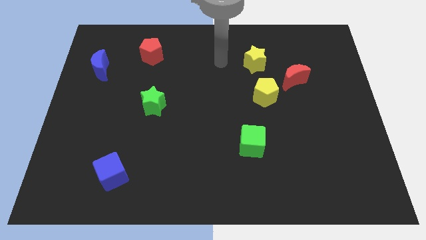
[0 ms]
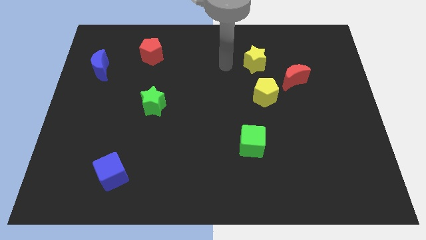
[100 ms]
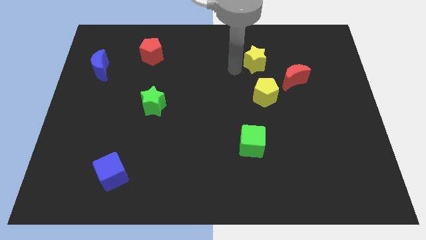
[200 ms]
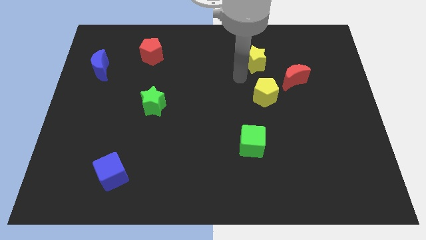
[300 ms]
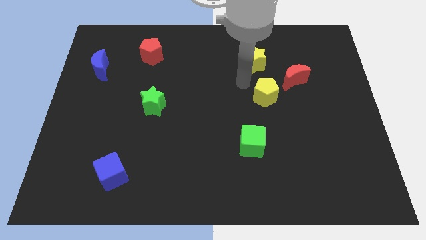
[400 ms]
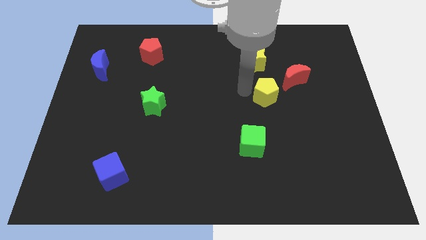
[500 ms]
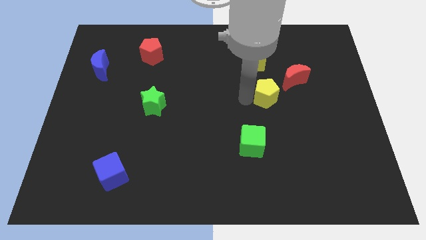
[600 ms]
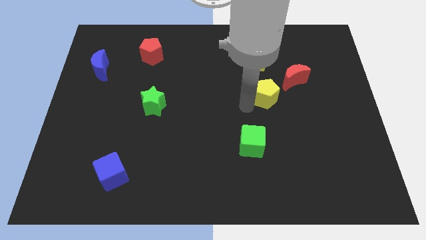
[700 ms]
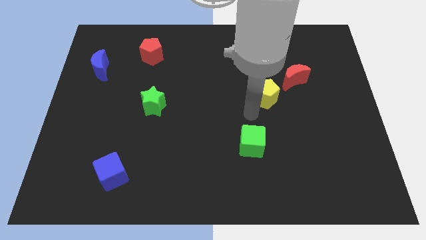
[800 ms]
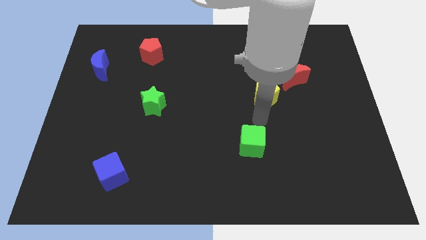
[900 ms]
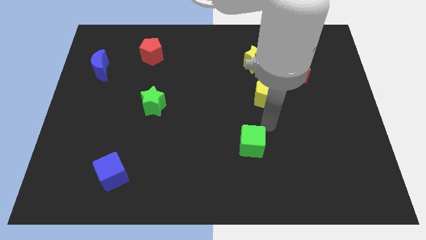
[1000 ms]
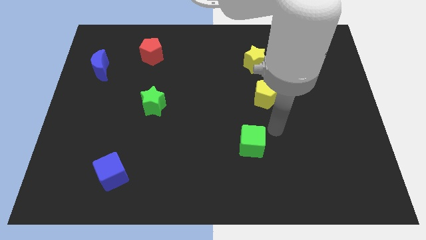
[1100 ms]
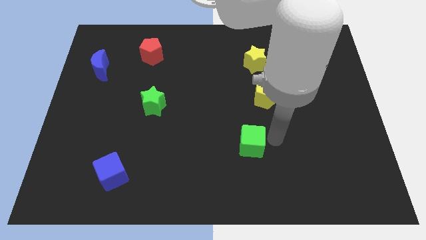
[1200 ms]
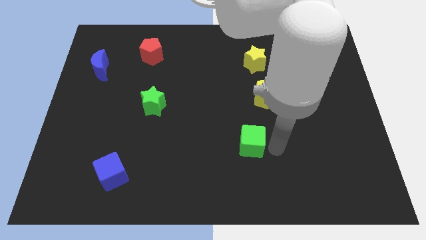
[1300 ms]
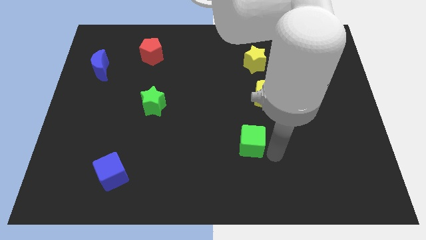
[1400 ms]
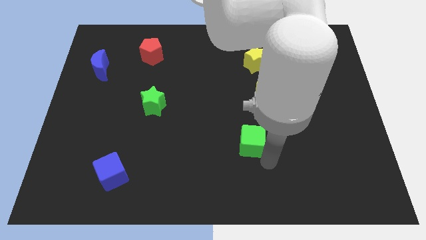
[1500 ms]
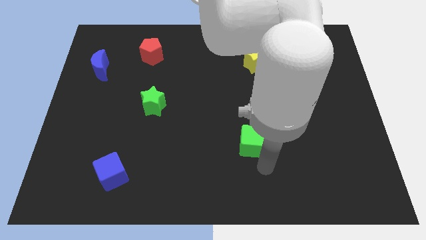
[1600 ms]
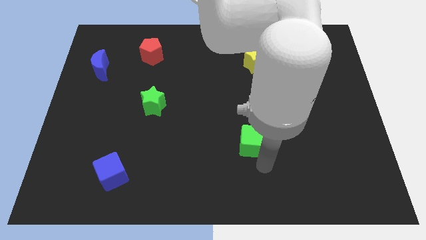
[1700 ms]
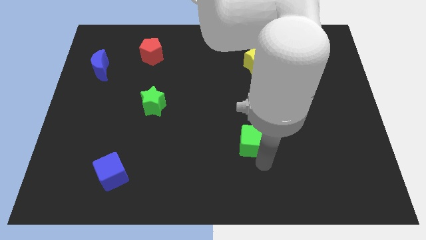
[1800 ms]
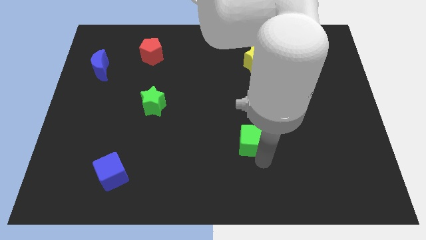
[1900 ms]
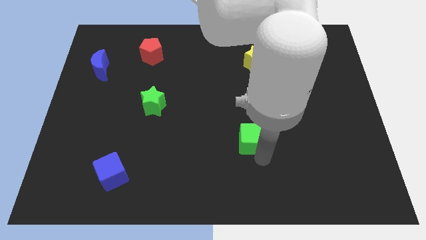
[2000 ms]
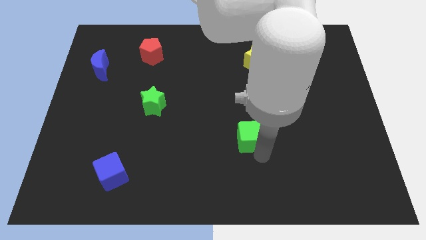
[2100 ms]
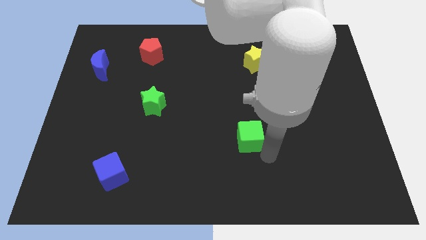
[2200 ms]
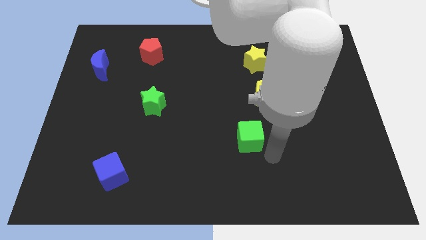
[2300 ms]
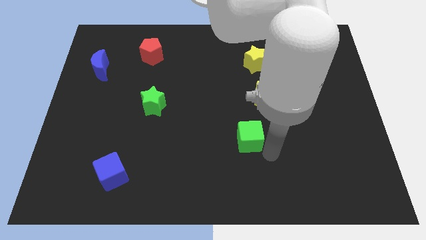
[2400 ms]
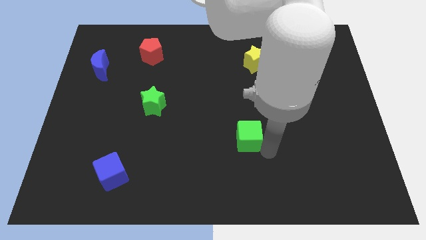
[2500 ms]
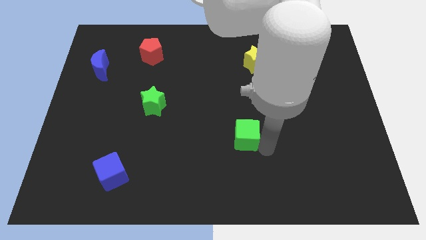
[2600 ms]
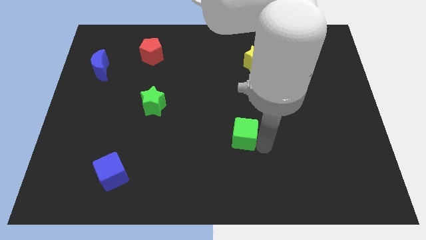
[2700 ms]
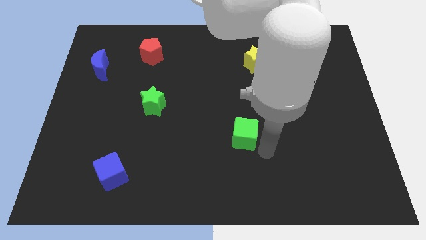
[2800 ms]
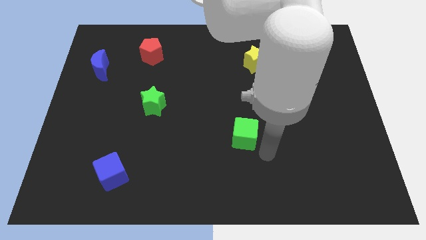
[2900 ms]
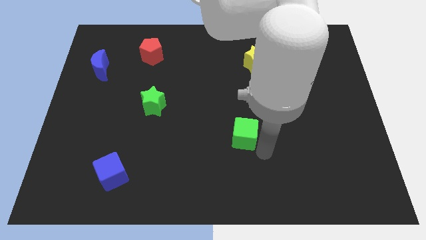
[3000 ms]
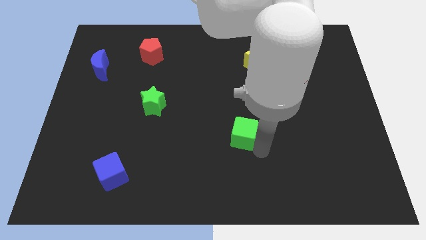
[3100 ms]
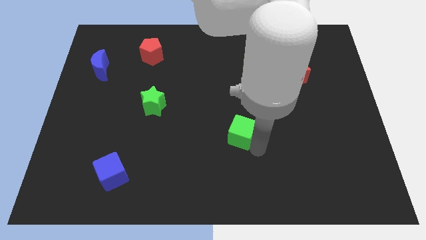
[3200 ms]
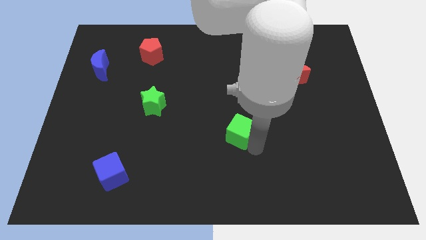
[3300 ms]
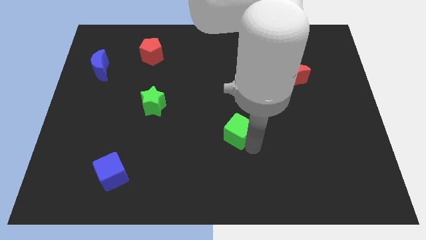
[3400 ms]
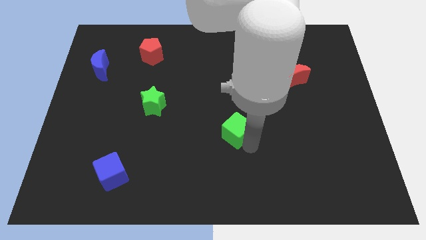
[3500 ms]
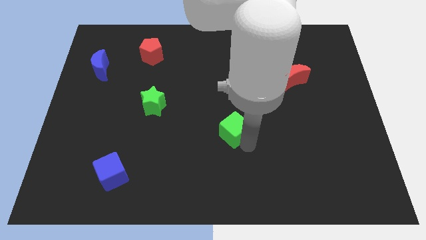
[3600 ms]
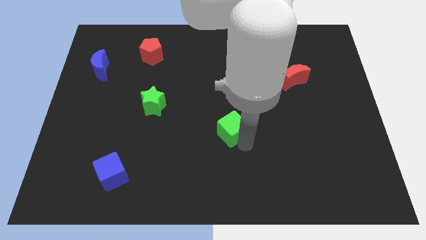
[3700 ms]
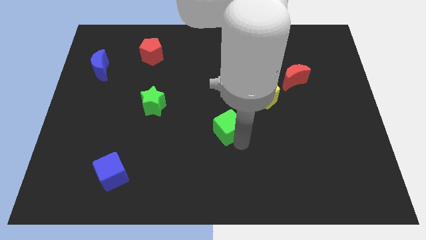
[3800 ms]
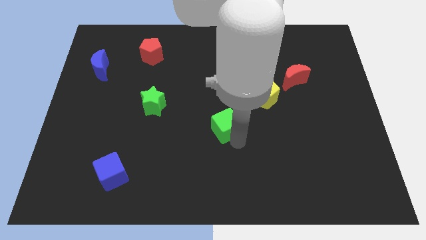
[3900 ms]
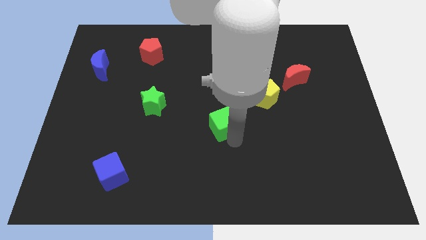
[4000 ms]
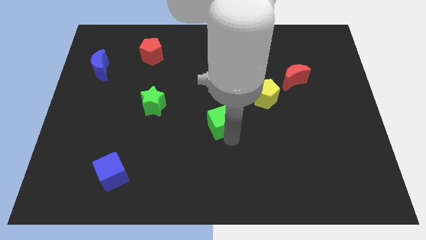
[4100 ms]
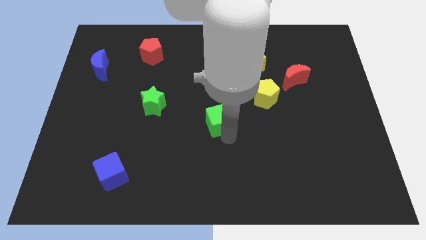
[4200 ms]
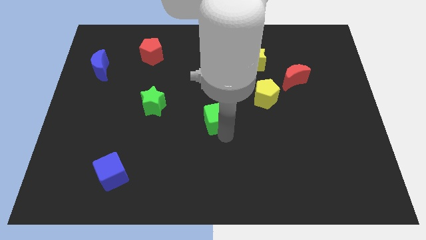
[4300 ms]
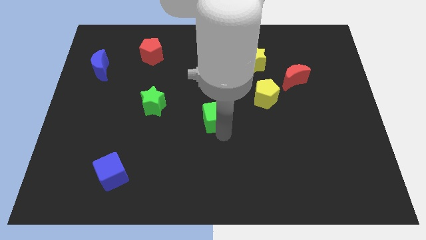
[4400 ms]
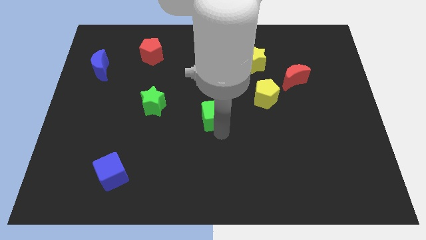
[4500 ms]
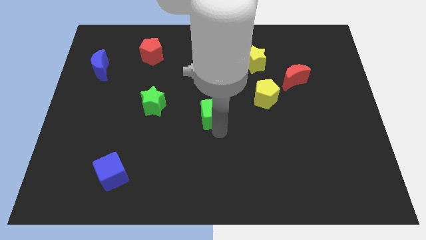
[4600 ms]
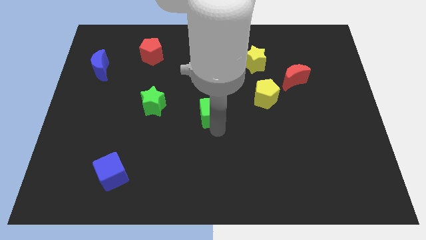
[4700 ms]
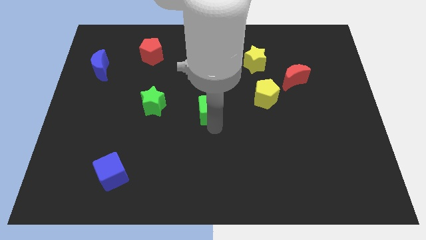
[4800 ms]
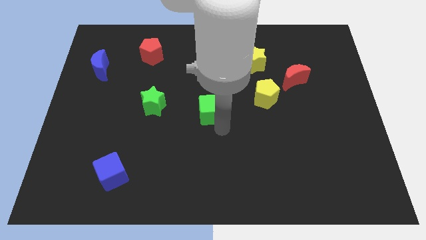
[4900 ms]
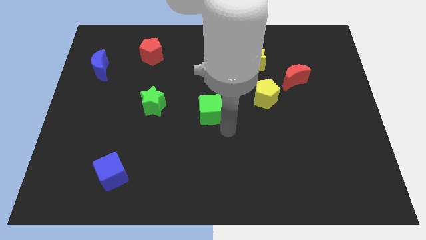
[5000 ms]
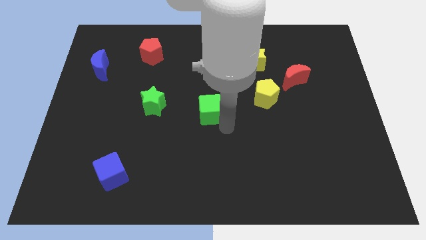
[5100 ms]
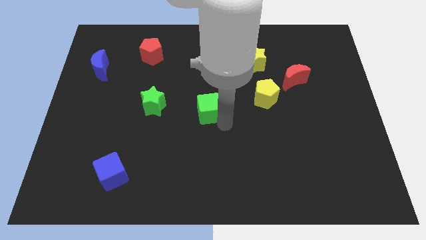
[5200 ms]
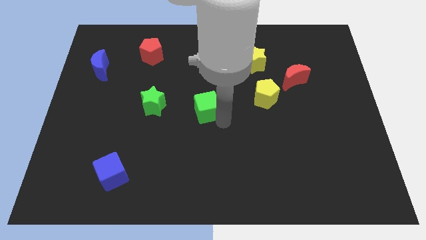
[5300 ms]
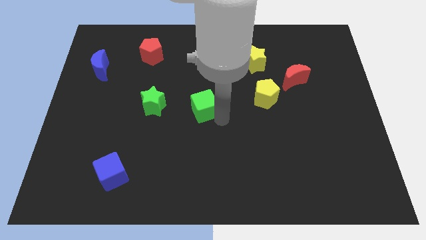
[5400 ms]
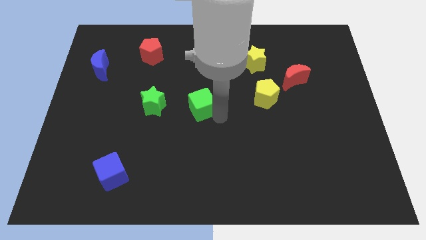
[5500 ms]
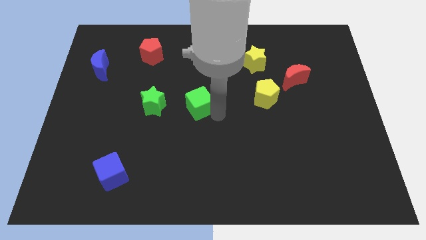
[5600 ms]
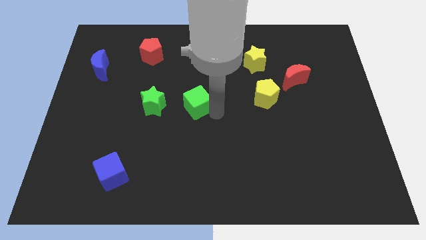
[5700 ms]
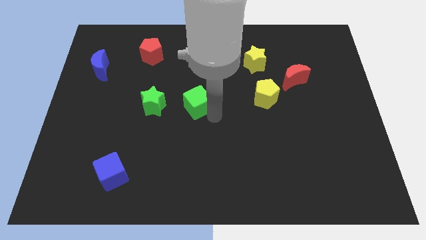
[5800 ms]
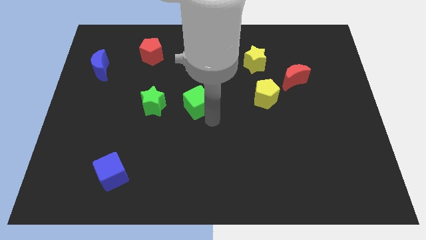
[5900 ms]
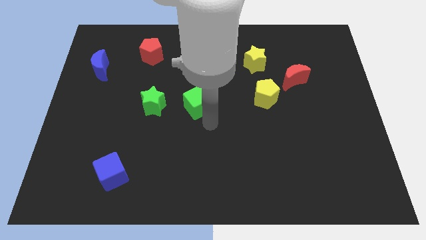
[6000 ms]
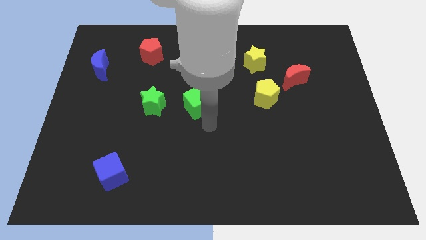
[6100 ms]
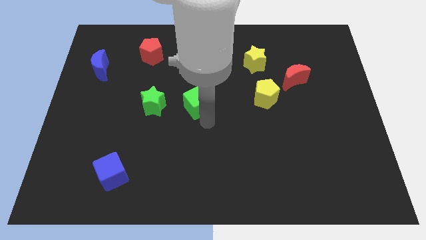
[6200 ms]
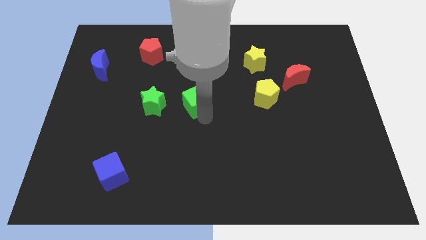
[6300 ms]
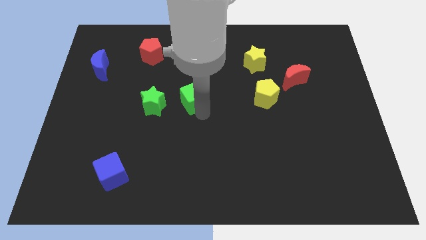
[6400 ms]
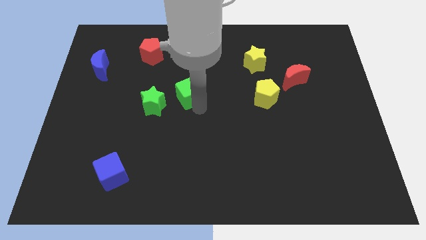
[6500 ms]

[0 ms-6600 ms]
slide the green cube upwards and to the left diagonally

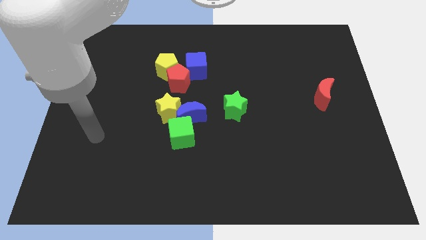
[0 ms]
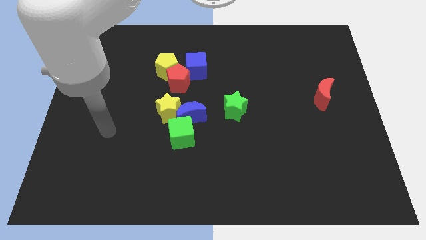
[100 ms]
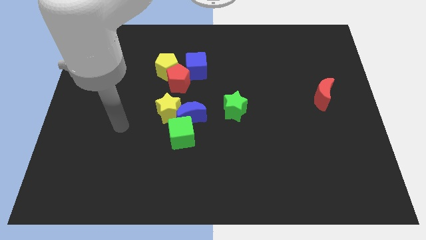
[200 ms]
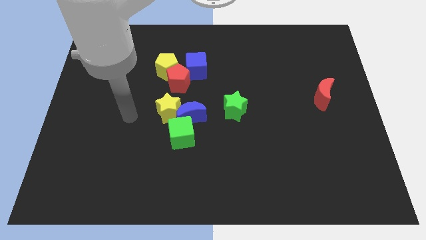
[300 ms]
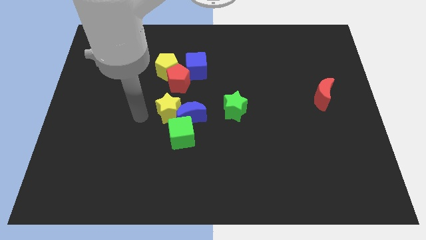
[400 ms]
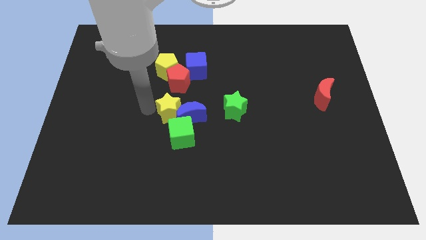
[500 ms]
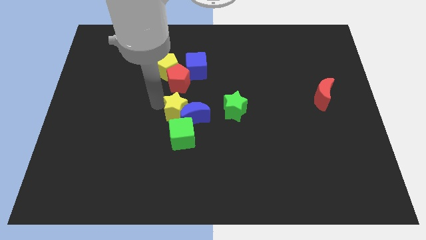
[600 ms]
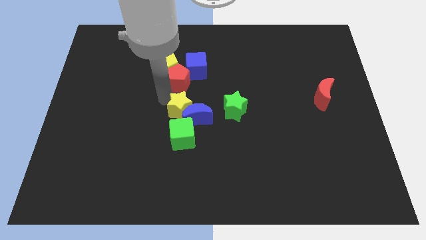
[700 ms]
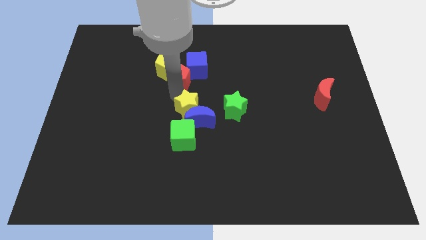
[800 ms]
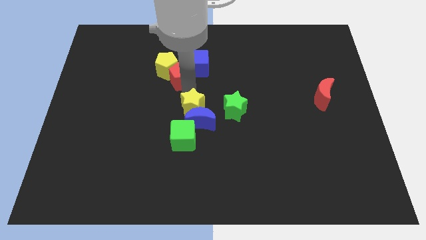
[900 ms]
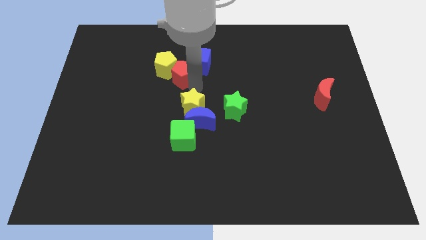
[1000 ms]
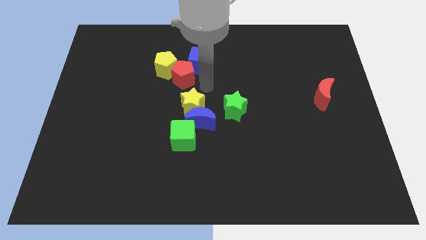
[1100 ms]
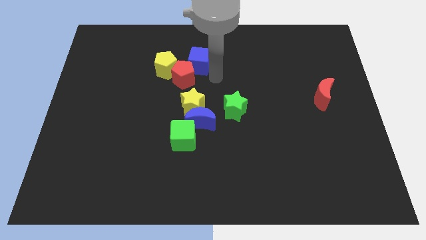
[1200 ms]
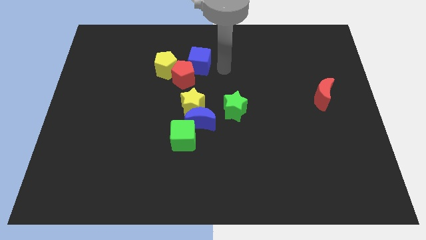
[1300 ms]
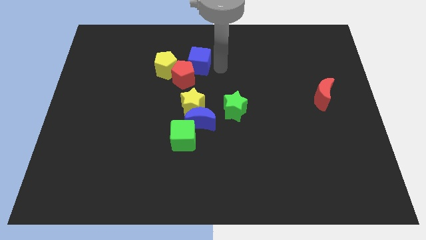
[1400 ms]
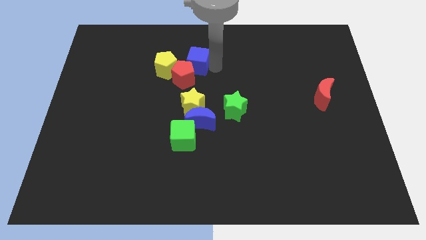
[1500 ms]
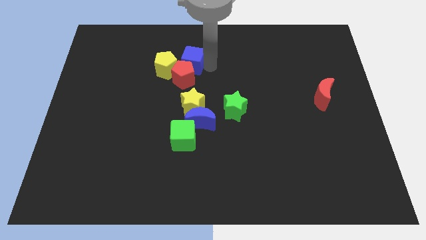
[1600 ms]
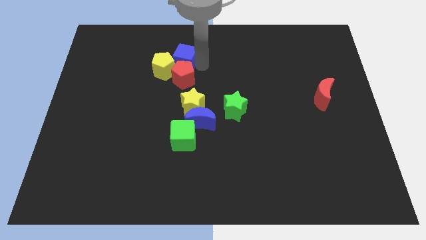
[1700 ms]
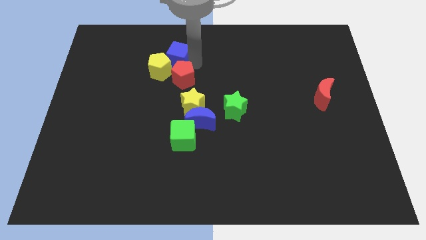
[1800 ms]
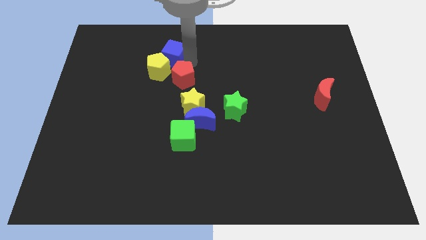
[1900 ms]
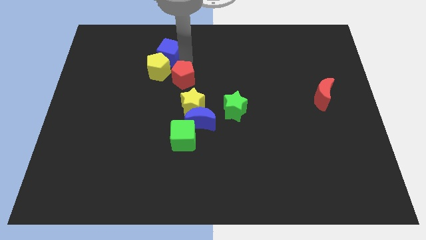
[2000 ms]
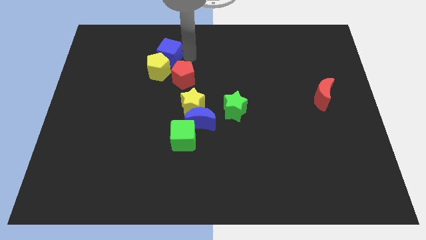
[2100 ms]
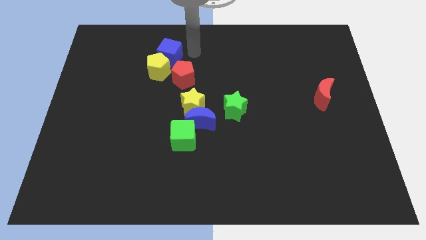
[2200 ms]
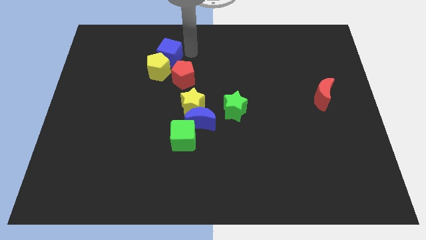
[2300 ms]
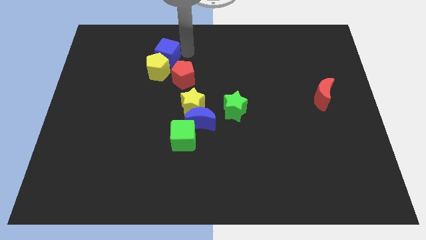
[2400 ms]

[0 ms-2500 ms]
move the blue cube a little to the left
